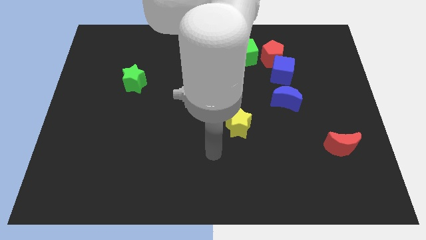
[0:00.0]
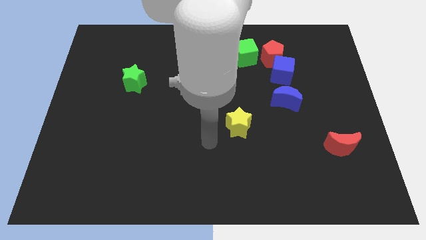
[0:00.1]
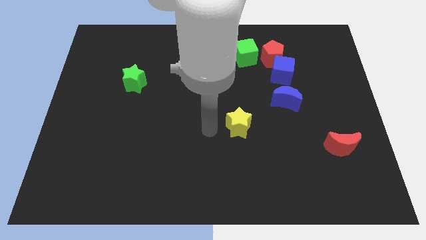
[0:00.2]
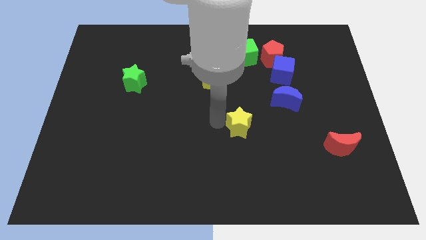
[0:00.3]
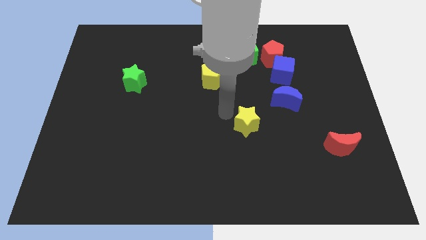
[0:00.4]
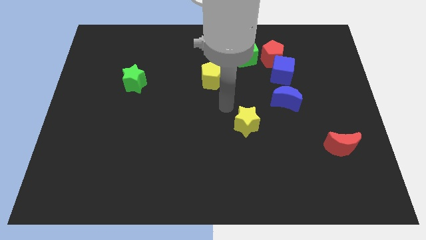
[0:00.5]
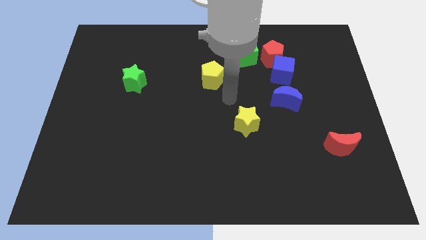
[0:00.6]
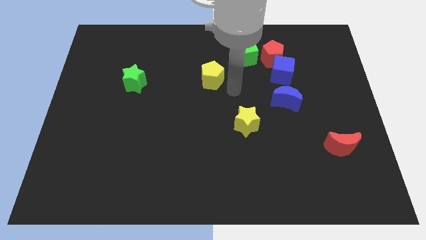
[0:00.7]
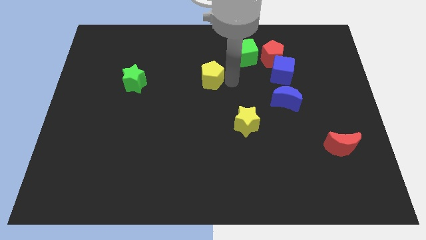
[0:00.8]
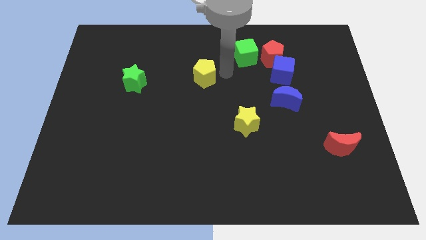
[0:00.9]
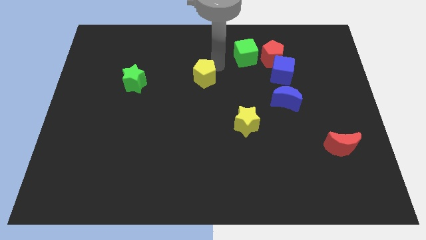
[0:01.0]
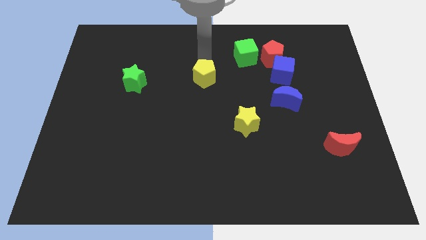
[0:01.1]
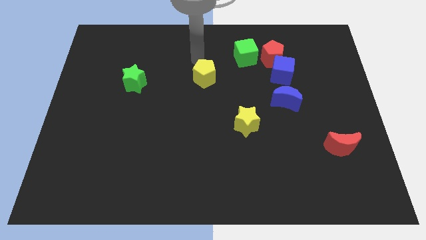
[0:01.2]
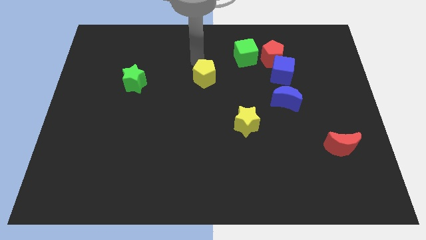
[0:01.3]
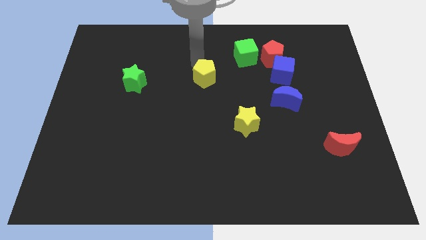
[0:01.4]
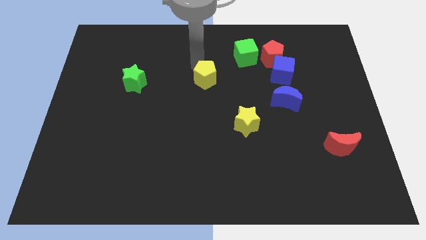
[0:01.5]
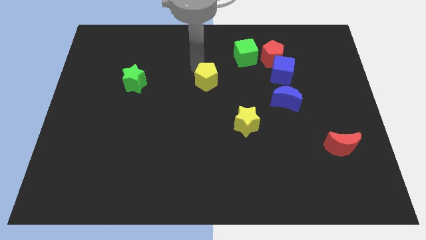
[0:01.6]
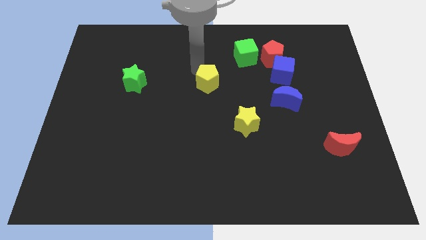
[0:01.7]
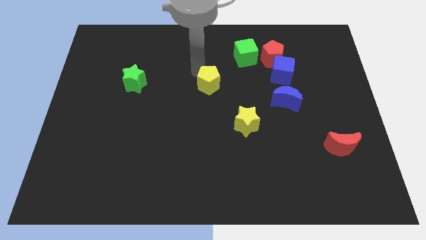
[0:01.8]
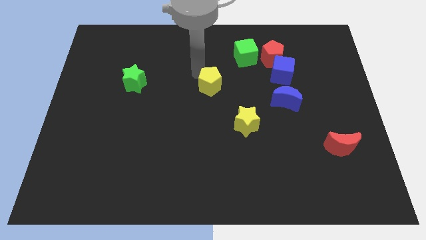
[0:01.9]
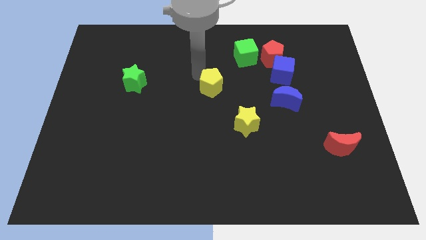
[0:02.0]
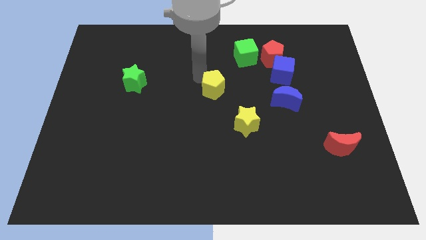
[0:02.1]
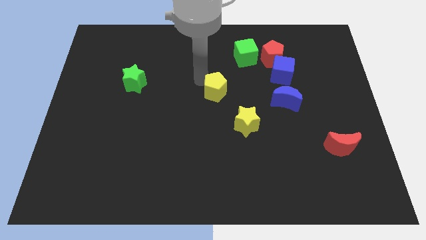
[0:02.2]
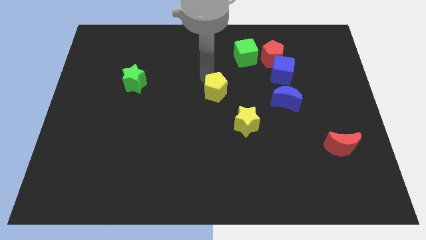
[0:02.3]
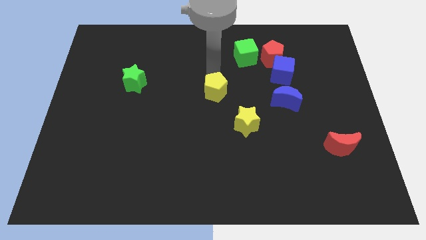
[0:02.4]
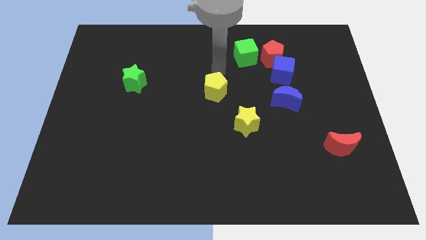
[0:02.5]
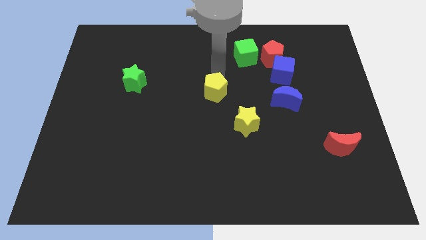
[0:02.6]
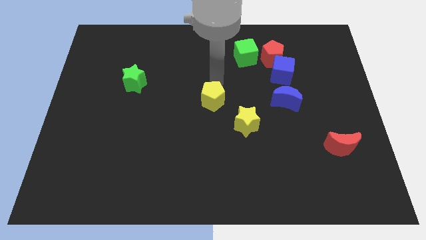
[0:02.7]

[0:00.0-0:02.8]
slightly move the yellow pentagon down

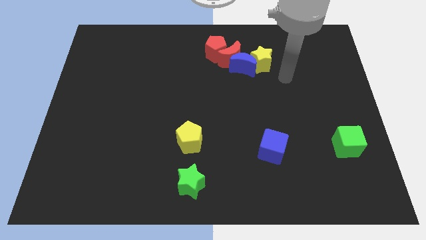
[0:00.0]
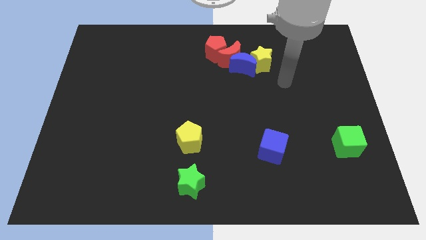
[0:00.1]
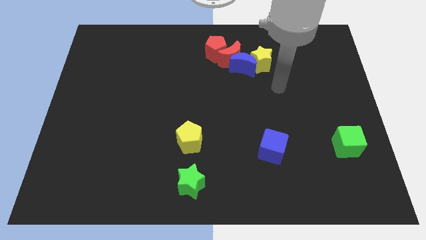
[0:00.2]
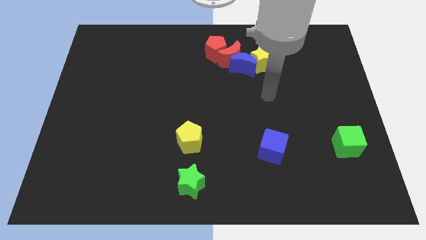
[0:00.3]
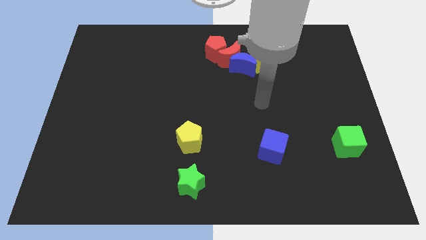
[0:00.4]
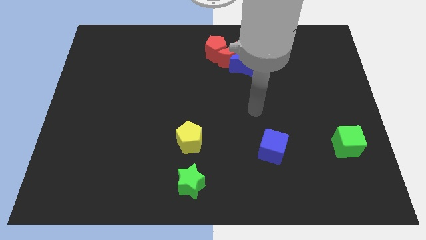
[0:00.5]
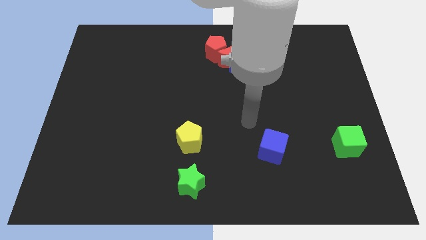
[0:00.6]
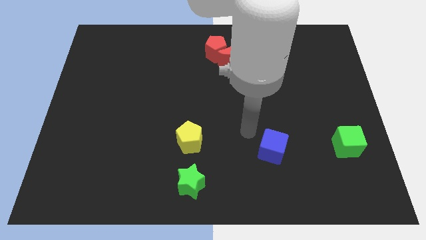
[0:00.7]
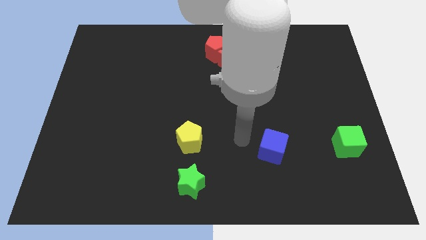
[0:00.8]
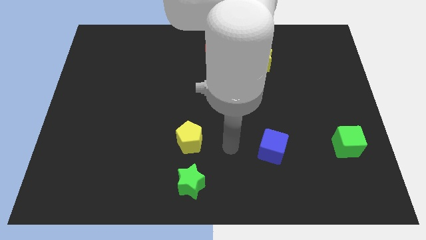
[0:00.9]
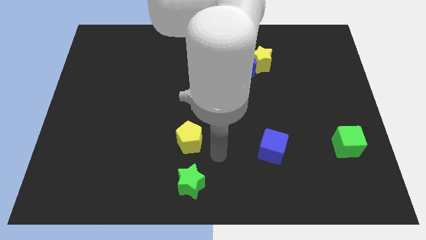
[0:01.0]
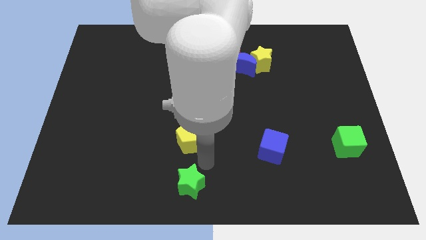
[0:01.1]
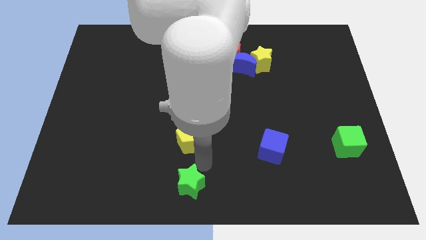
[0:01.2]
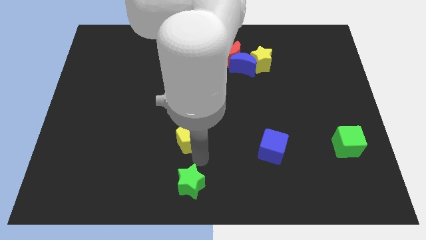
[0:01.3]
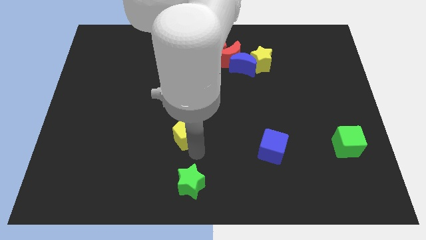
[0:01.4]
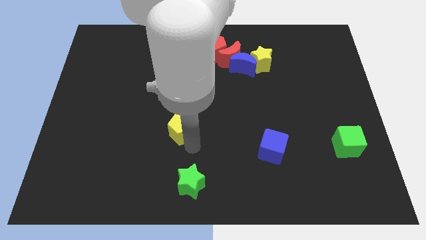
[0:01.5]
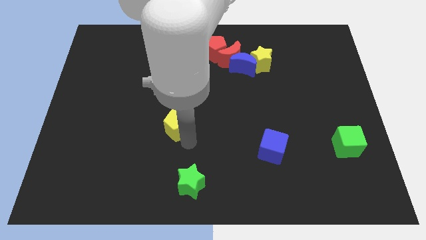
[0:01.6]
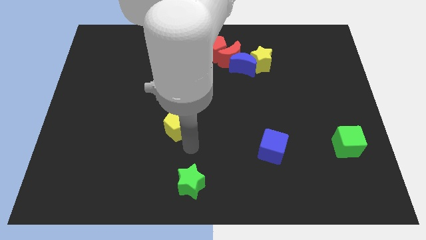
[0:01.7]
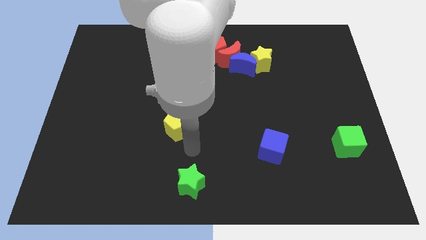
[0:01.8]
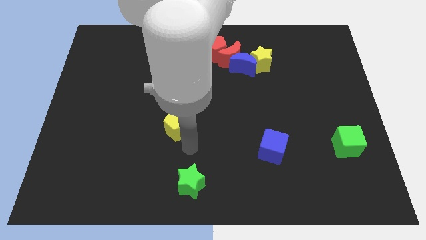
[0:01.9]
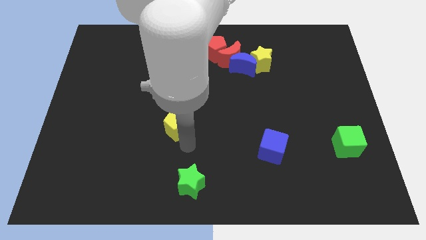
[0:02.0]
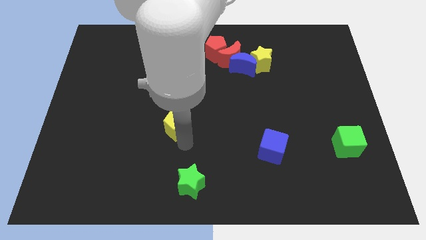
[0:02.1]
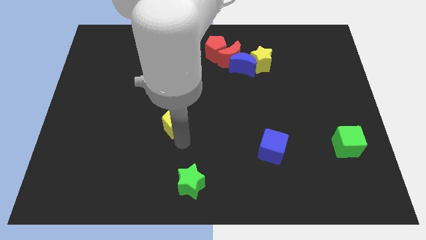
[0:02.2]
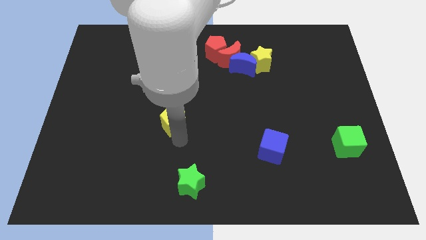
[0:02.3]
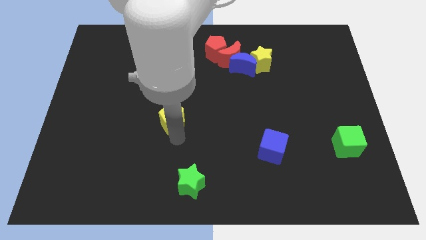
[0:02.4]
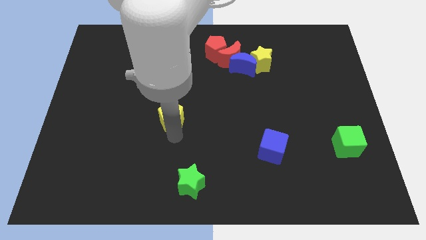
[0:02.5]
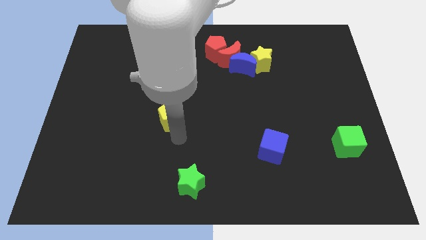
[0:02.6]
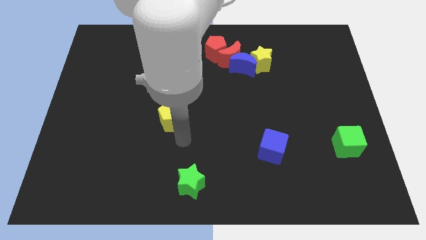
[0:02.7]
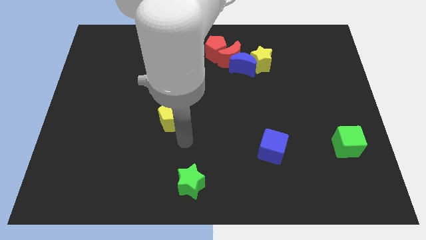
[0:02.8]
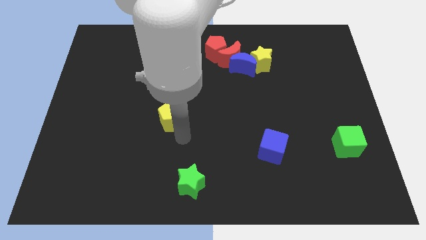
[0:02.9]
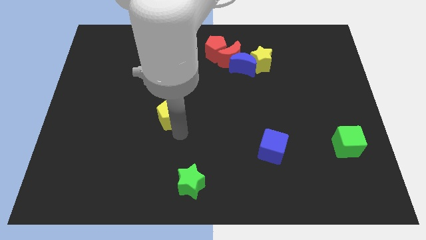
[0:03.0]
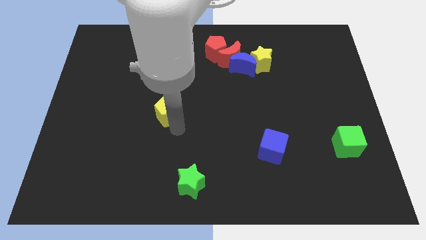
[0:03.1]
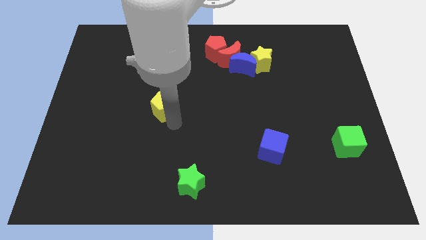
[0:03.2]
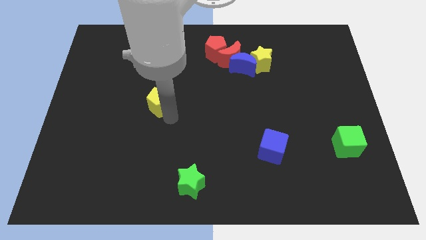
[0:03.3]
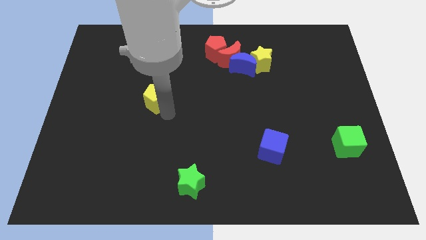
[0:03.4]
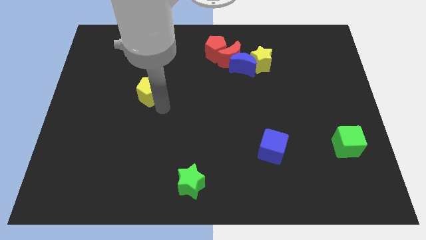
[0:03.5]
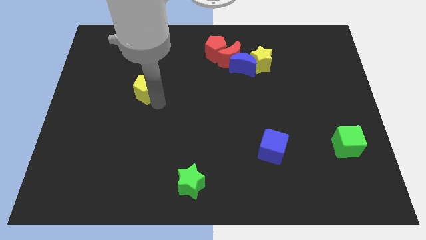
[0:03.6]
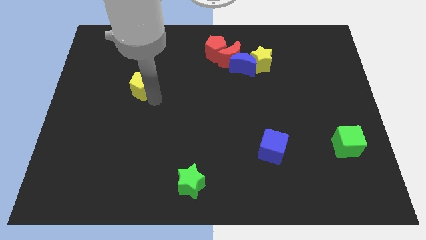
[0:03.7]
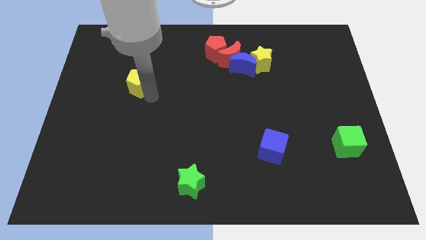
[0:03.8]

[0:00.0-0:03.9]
push the yellow pentagon diagonally up and to the left

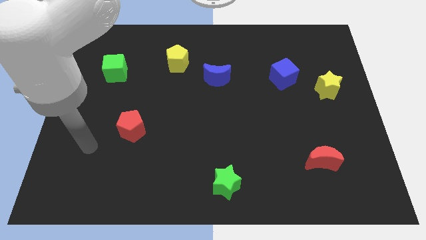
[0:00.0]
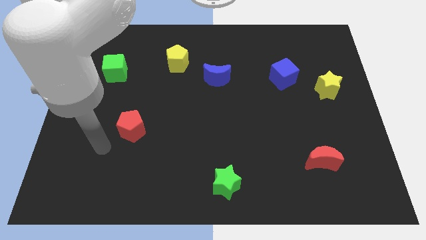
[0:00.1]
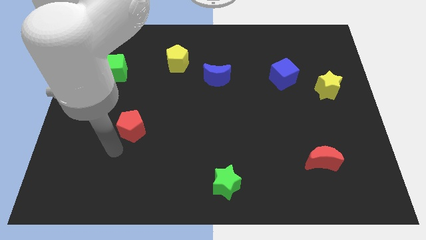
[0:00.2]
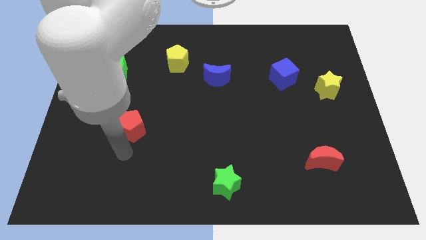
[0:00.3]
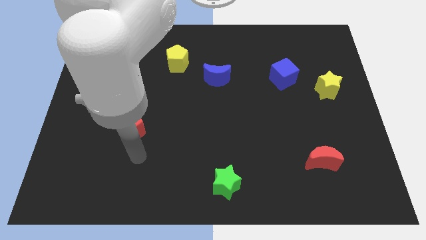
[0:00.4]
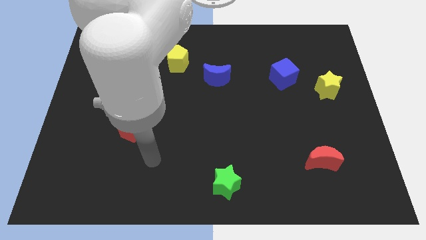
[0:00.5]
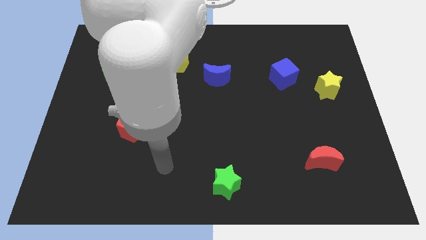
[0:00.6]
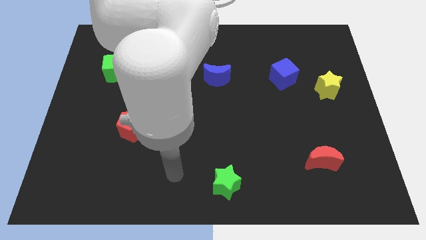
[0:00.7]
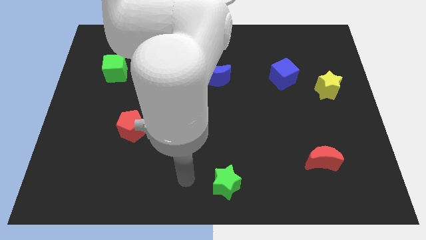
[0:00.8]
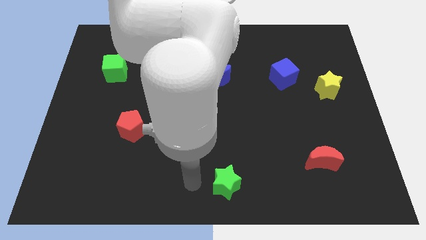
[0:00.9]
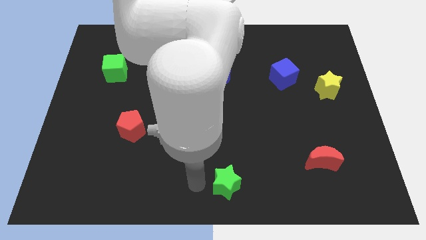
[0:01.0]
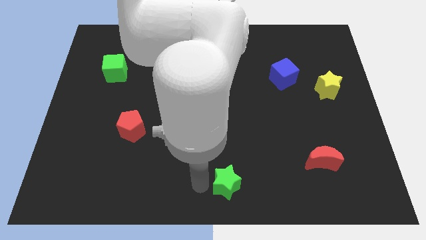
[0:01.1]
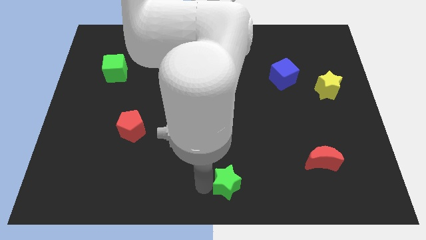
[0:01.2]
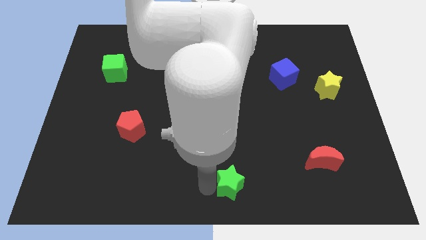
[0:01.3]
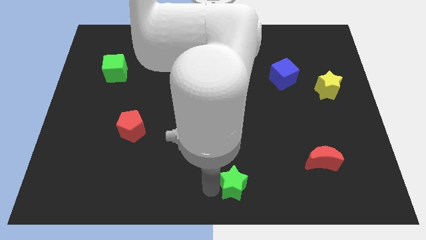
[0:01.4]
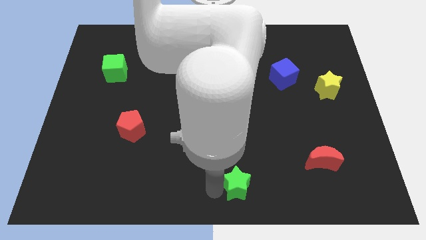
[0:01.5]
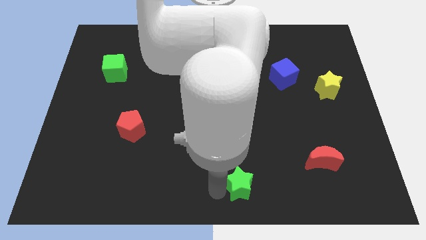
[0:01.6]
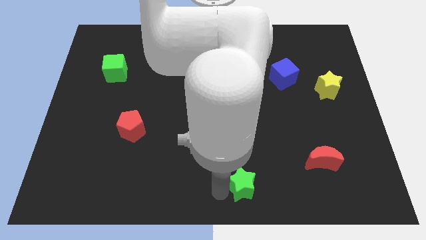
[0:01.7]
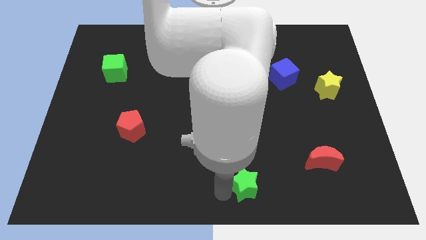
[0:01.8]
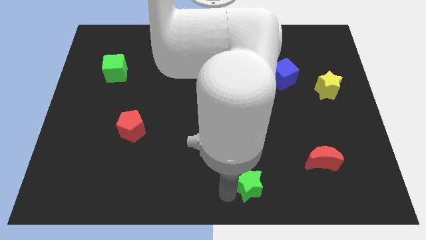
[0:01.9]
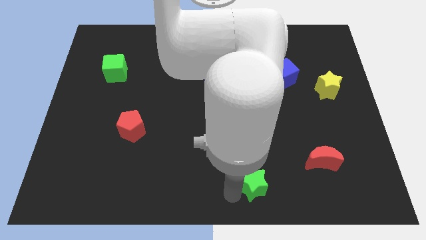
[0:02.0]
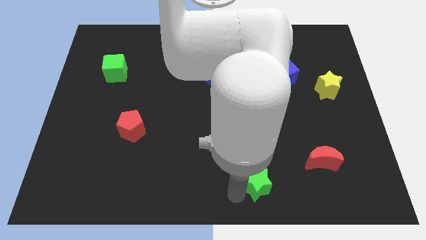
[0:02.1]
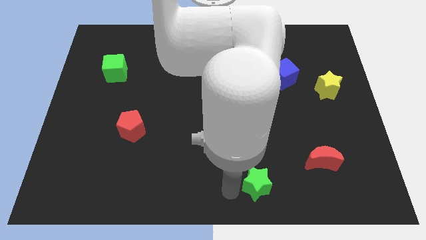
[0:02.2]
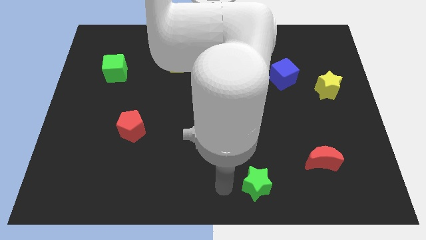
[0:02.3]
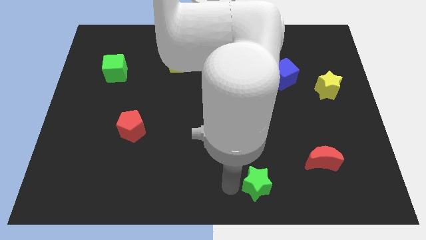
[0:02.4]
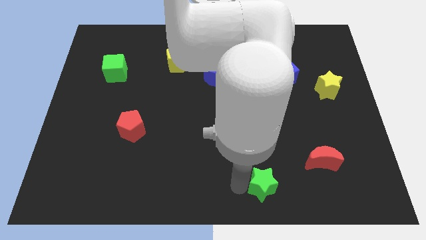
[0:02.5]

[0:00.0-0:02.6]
move the green star to the right a little bit
